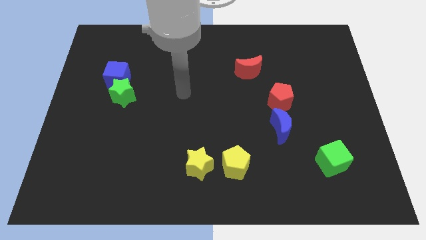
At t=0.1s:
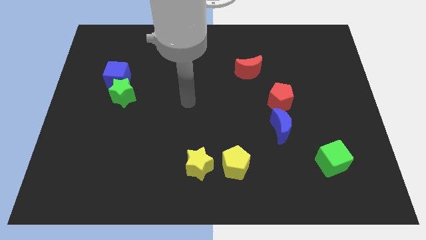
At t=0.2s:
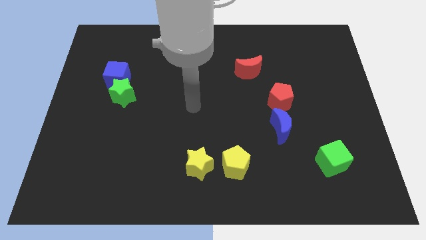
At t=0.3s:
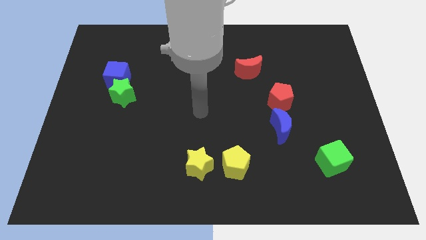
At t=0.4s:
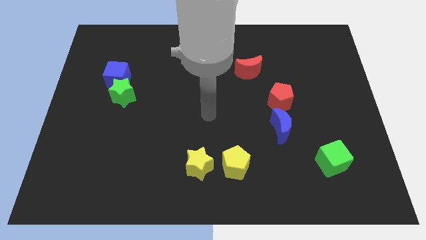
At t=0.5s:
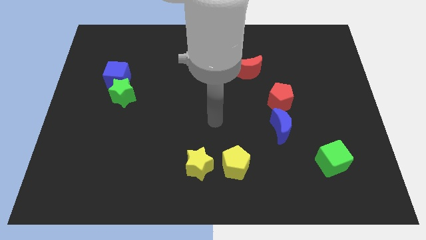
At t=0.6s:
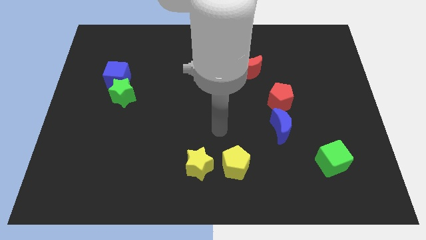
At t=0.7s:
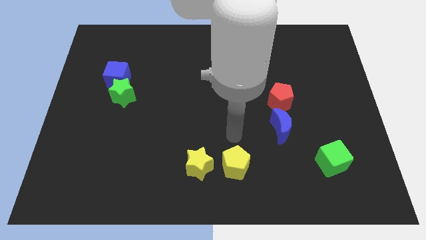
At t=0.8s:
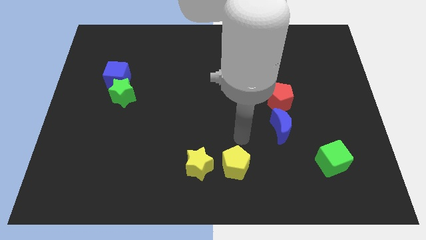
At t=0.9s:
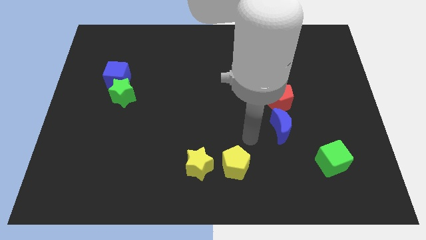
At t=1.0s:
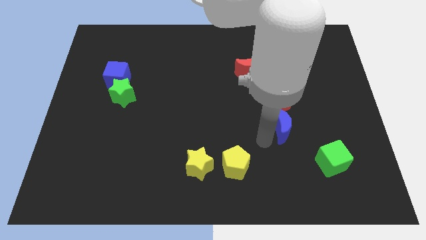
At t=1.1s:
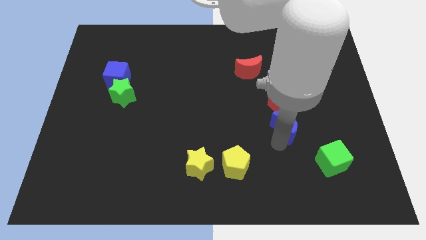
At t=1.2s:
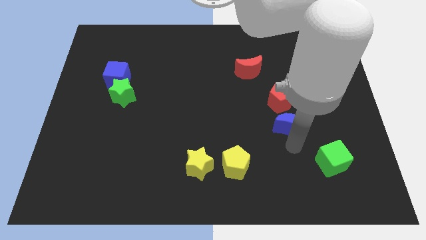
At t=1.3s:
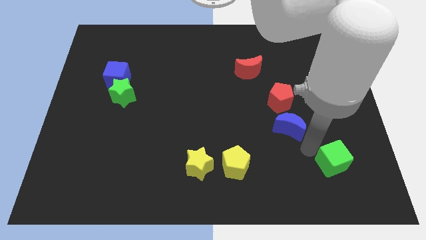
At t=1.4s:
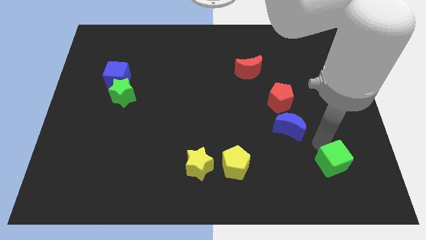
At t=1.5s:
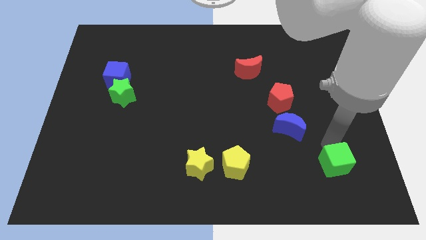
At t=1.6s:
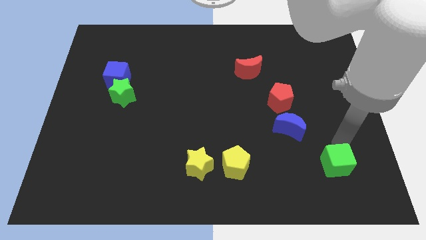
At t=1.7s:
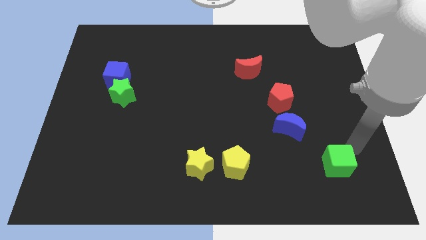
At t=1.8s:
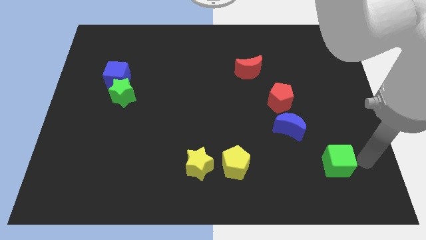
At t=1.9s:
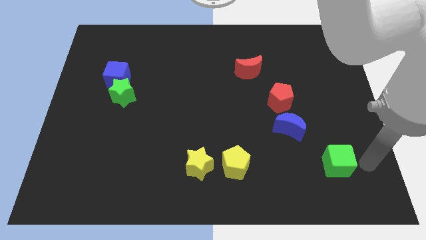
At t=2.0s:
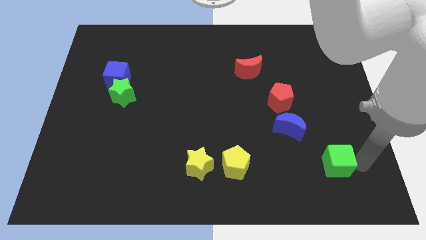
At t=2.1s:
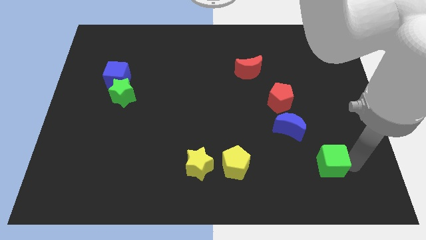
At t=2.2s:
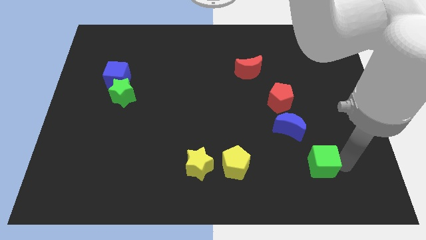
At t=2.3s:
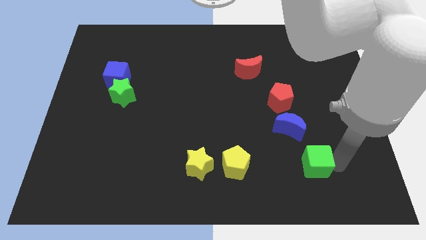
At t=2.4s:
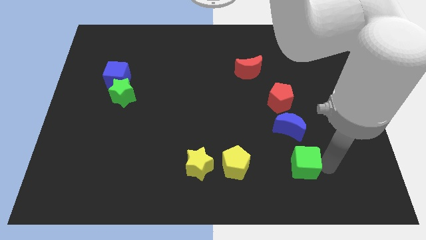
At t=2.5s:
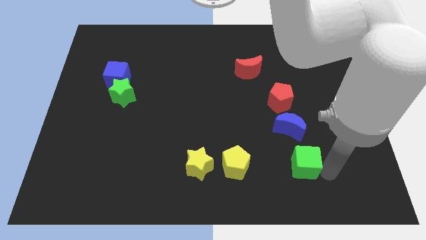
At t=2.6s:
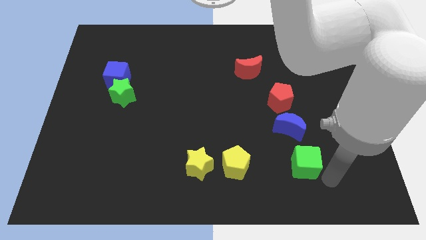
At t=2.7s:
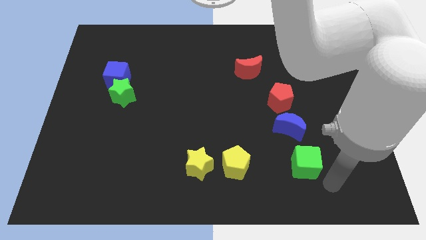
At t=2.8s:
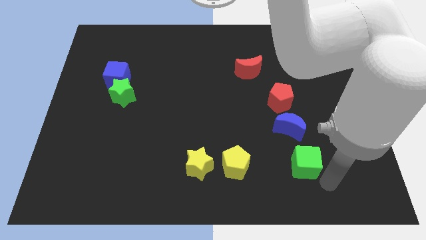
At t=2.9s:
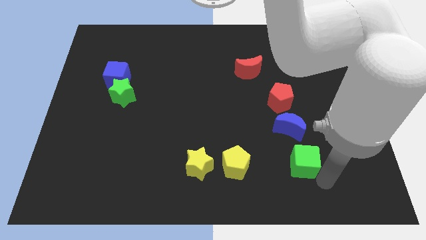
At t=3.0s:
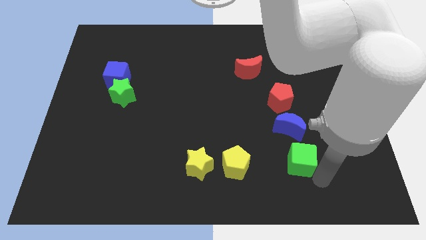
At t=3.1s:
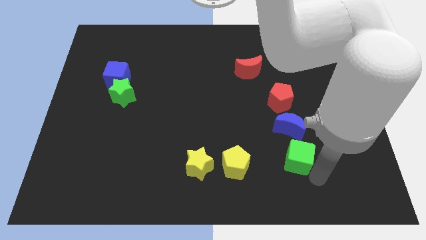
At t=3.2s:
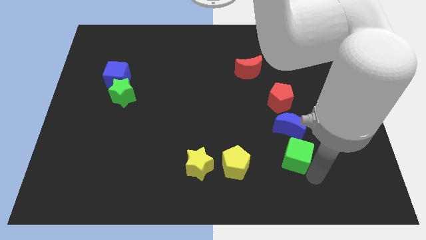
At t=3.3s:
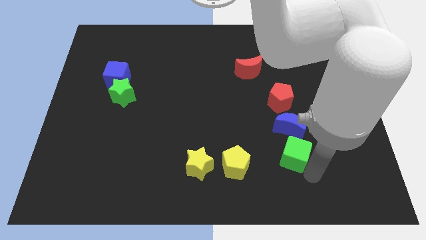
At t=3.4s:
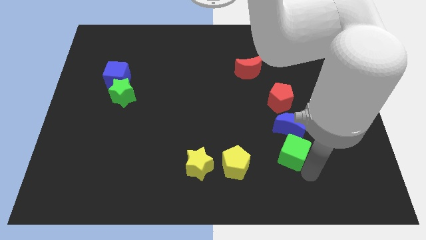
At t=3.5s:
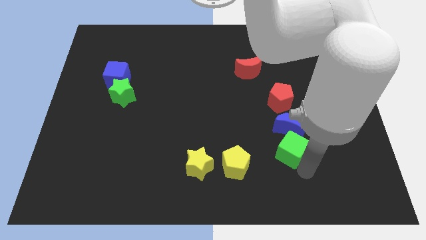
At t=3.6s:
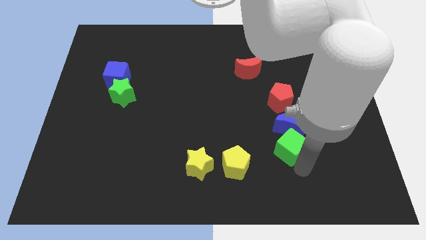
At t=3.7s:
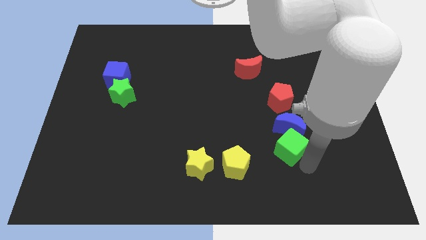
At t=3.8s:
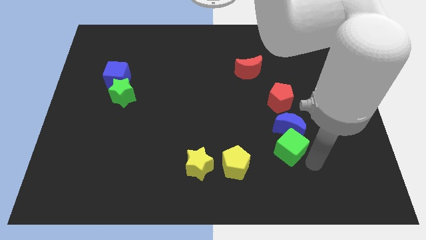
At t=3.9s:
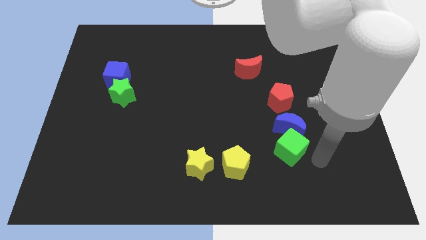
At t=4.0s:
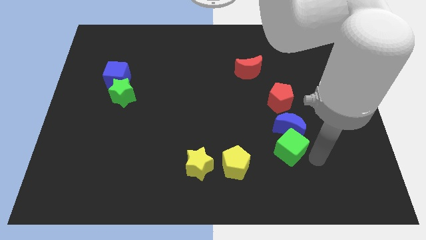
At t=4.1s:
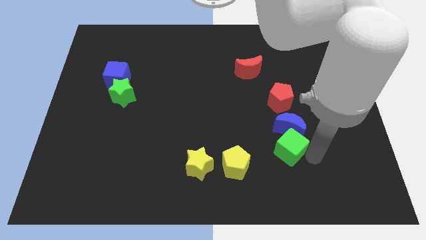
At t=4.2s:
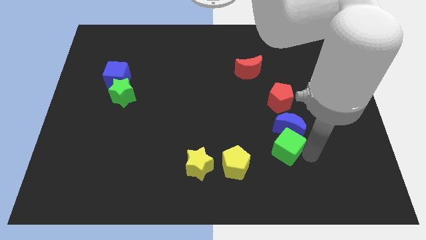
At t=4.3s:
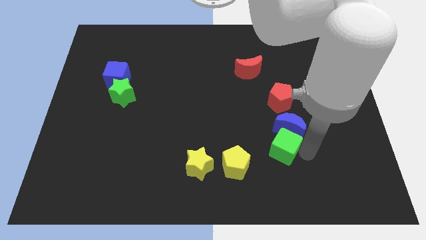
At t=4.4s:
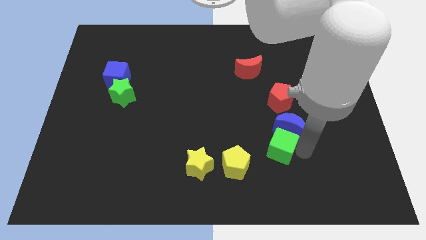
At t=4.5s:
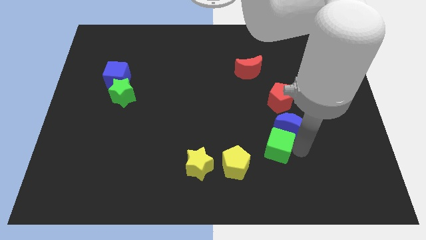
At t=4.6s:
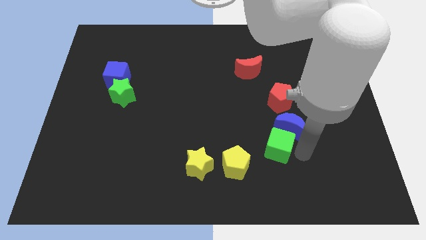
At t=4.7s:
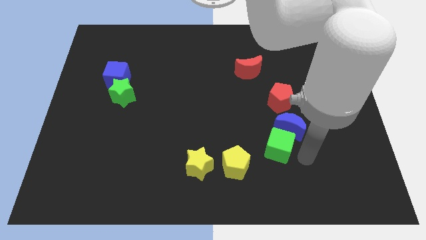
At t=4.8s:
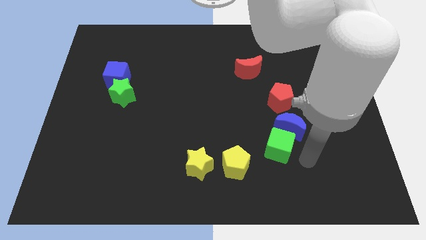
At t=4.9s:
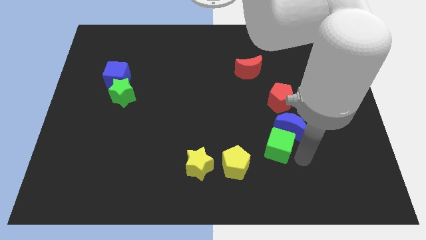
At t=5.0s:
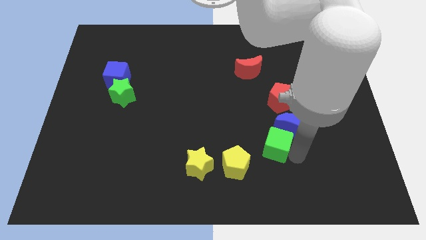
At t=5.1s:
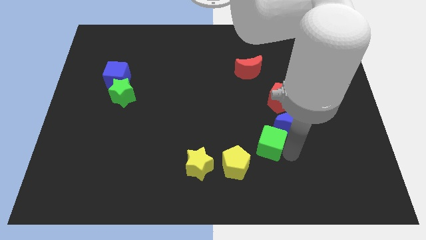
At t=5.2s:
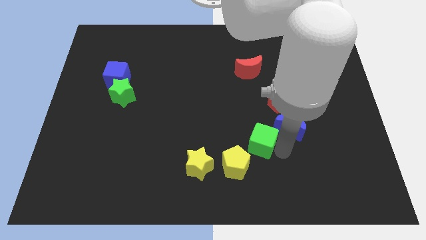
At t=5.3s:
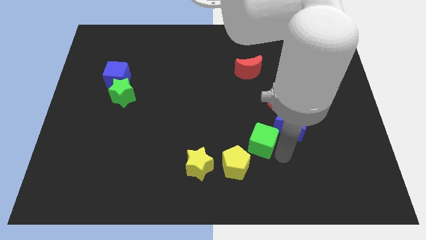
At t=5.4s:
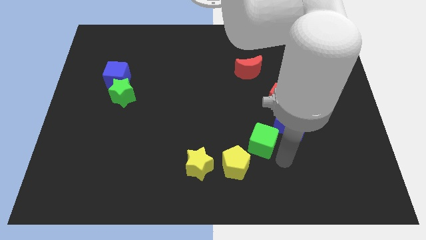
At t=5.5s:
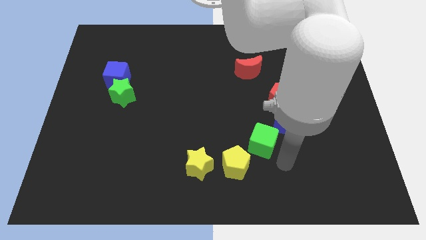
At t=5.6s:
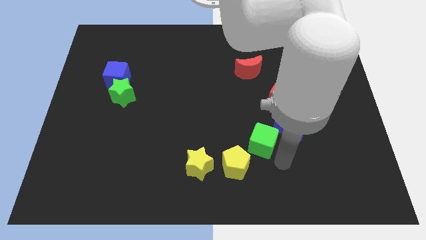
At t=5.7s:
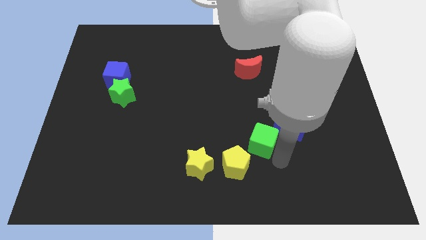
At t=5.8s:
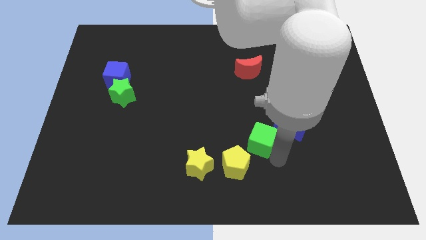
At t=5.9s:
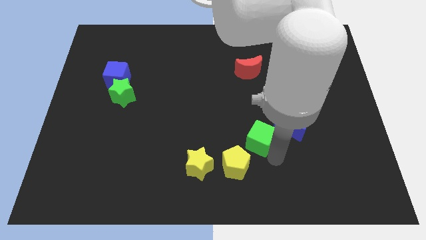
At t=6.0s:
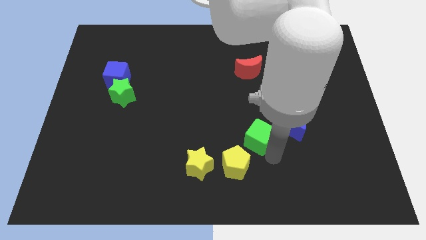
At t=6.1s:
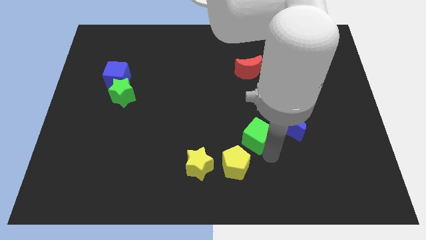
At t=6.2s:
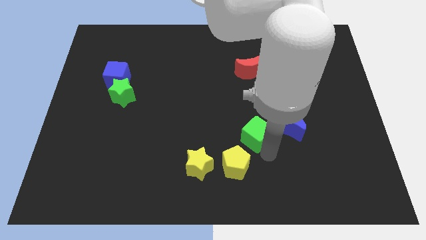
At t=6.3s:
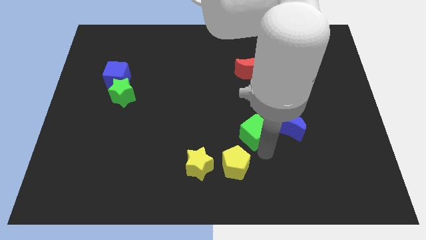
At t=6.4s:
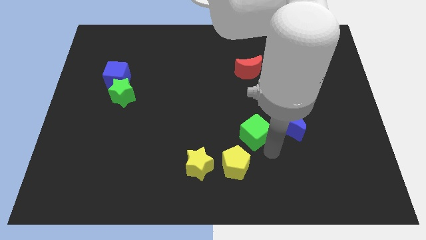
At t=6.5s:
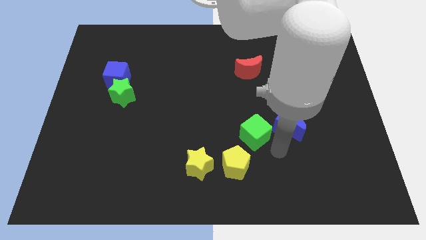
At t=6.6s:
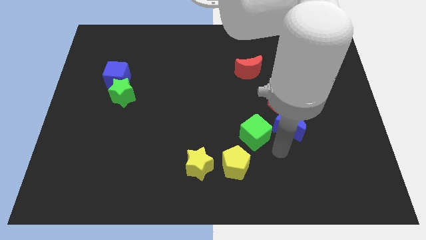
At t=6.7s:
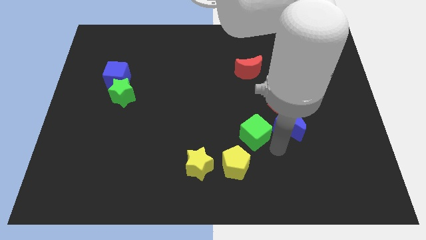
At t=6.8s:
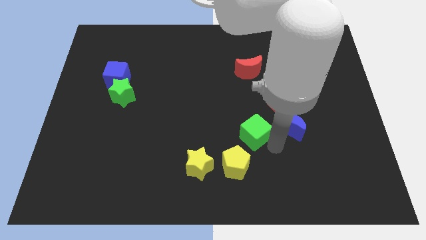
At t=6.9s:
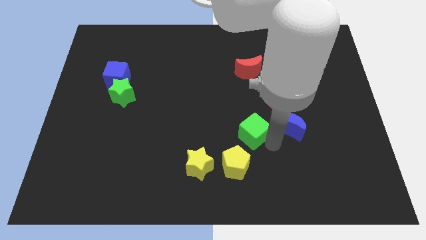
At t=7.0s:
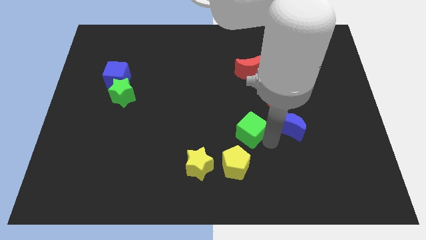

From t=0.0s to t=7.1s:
push the green cube to the center of the board
